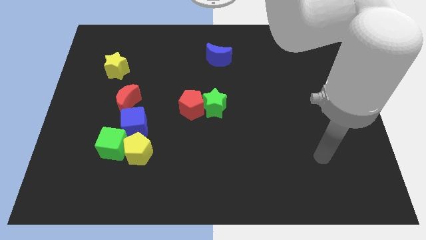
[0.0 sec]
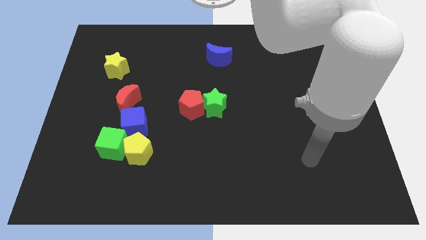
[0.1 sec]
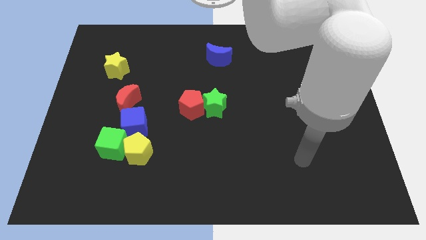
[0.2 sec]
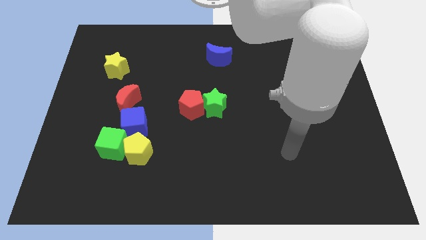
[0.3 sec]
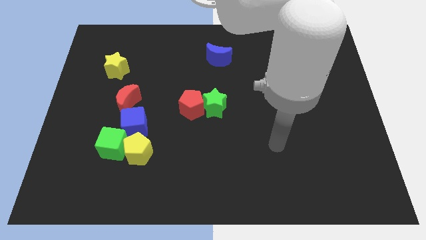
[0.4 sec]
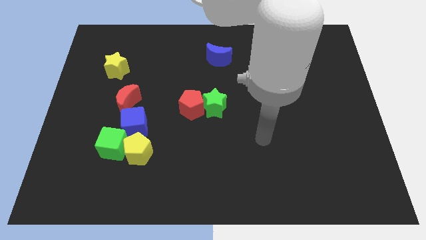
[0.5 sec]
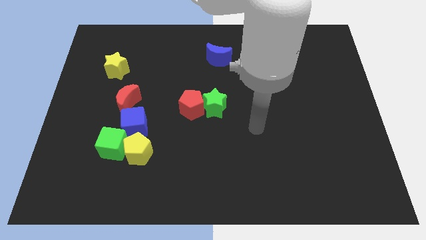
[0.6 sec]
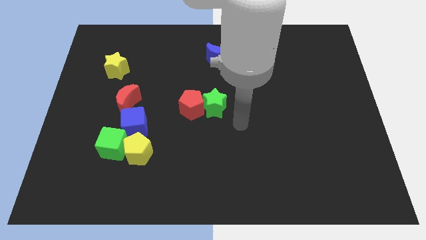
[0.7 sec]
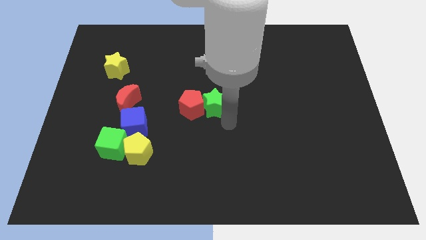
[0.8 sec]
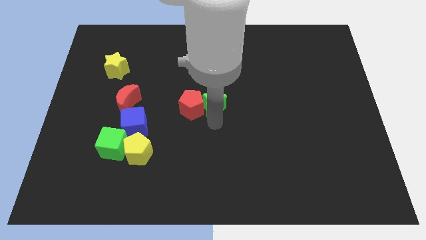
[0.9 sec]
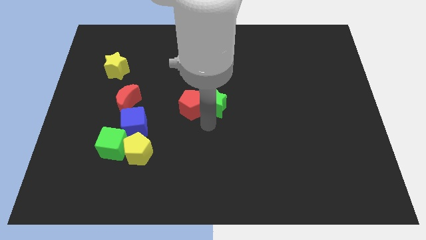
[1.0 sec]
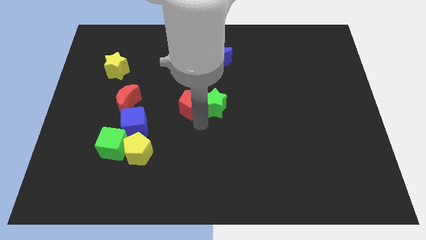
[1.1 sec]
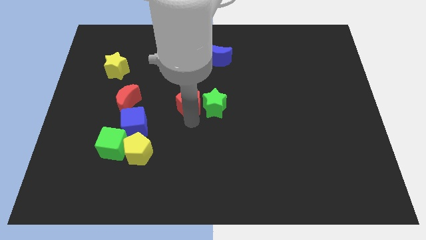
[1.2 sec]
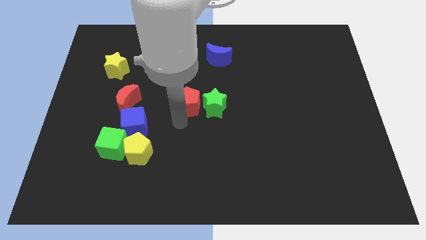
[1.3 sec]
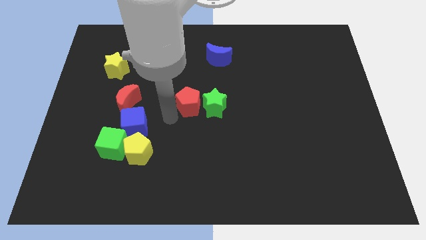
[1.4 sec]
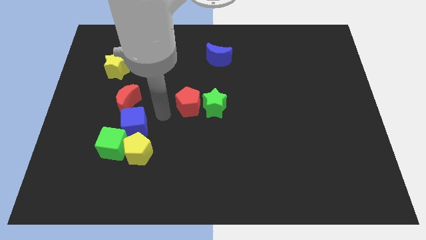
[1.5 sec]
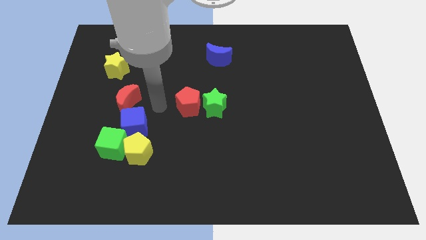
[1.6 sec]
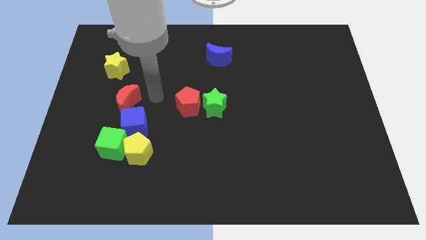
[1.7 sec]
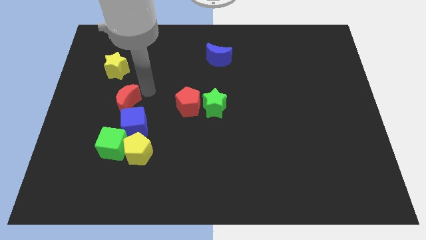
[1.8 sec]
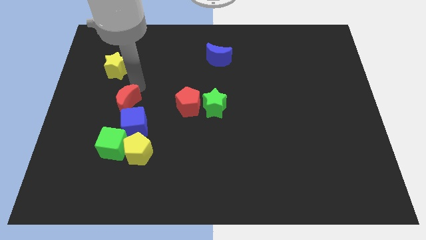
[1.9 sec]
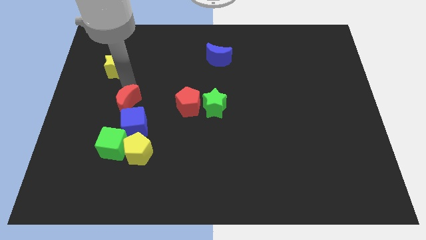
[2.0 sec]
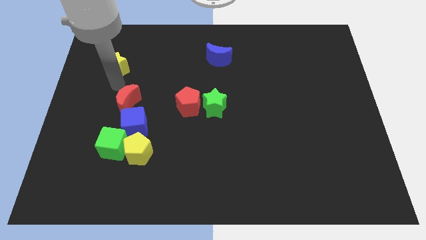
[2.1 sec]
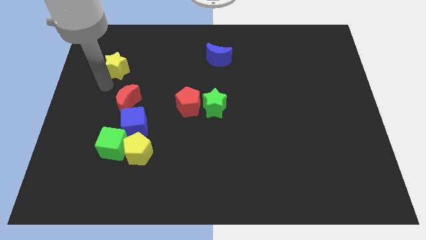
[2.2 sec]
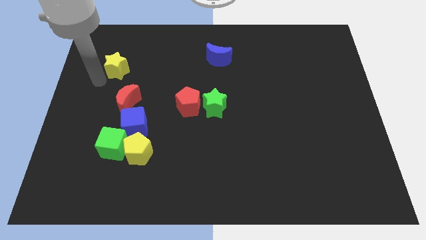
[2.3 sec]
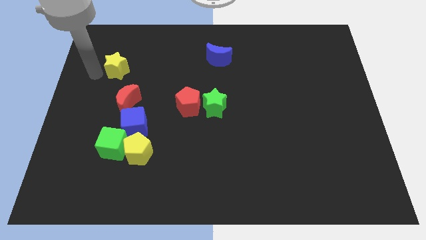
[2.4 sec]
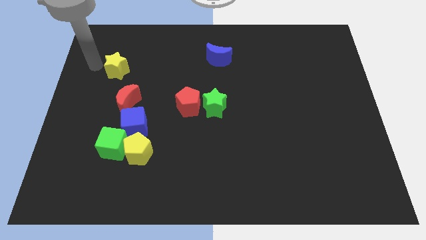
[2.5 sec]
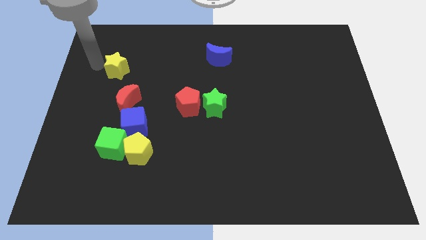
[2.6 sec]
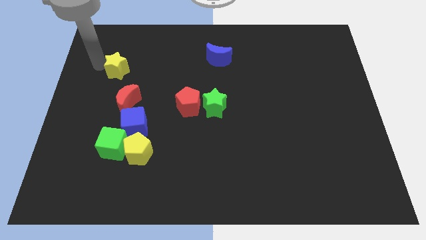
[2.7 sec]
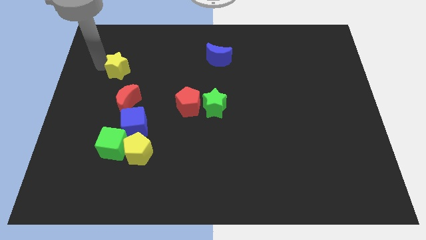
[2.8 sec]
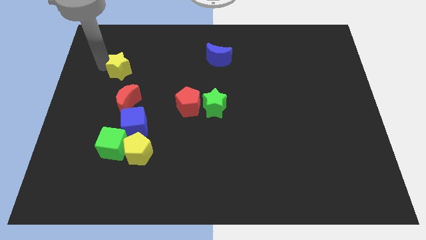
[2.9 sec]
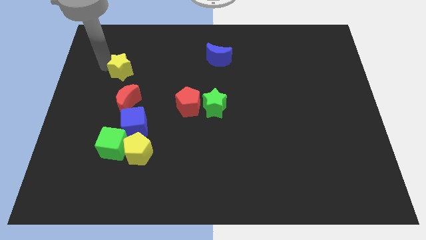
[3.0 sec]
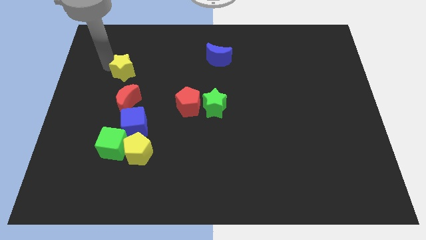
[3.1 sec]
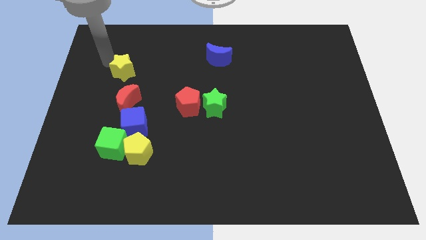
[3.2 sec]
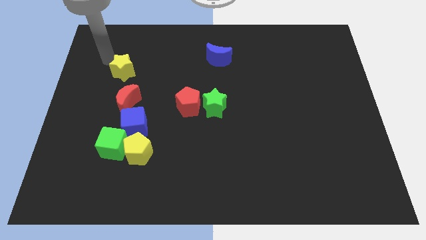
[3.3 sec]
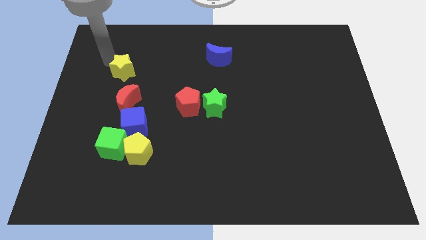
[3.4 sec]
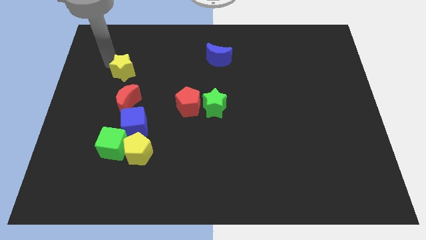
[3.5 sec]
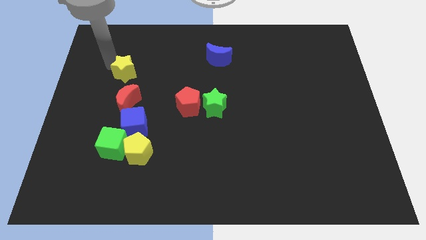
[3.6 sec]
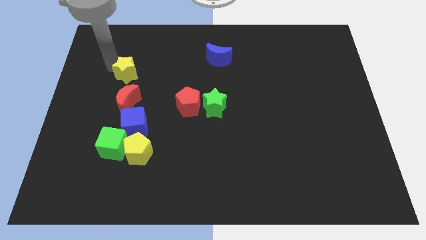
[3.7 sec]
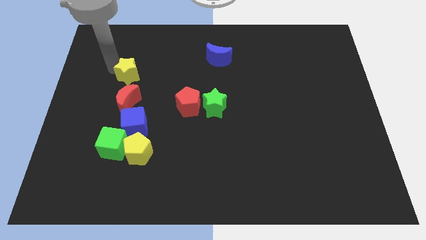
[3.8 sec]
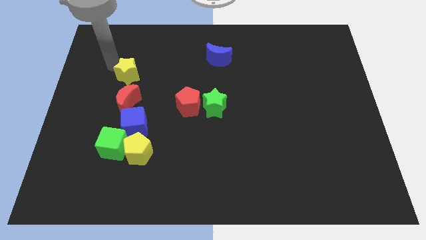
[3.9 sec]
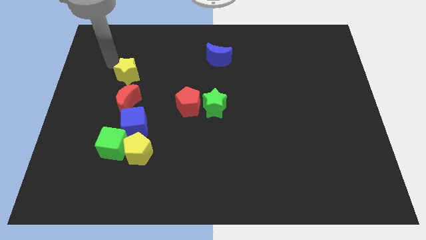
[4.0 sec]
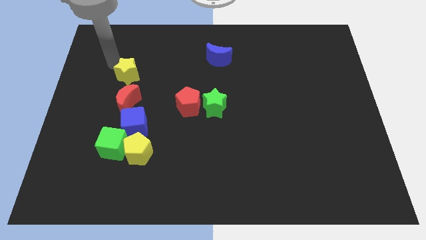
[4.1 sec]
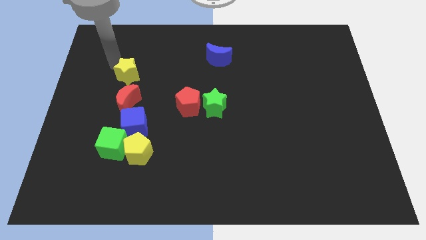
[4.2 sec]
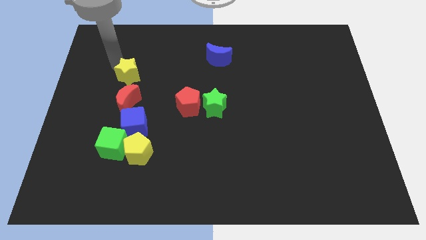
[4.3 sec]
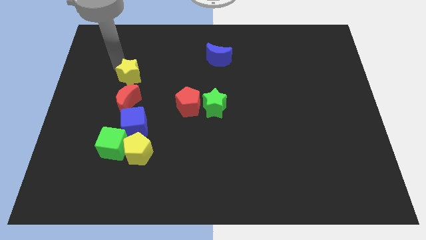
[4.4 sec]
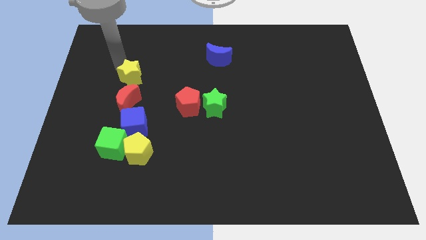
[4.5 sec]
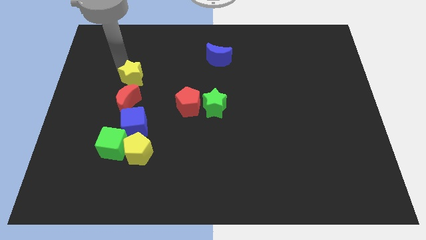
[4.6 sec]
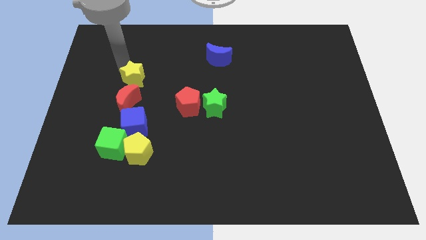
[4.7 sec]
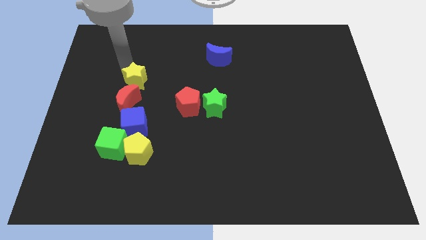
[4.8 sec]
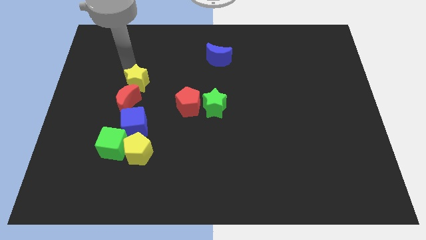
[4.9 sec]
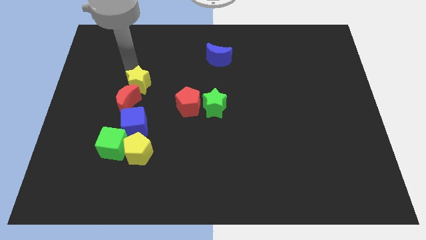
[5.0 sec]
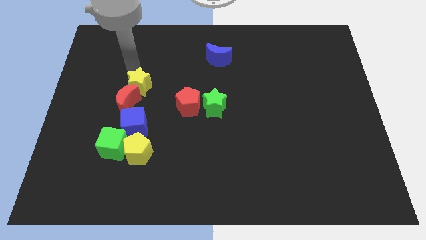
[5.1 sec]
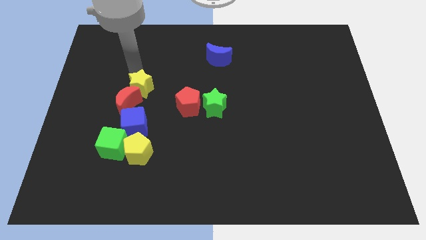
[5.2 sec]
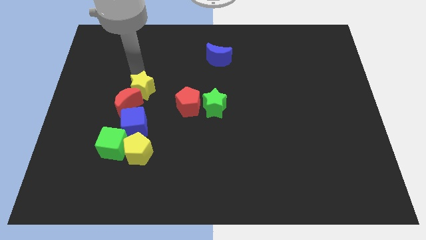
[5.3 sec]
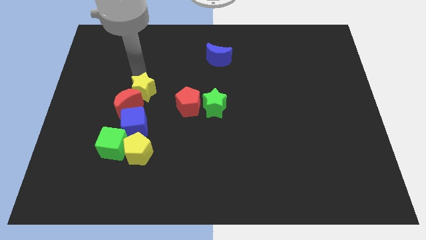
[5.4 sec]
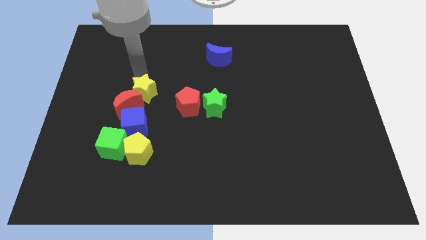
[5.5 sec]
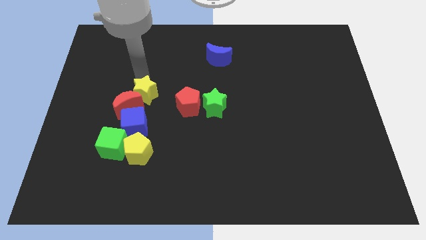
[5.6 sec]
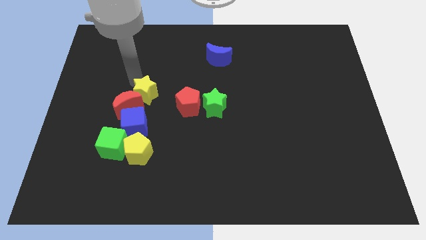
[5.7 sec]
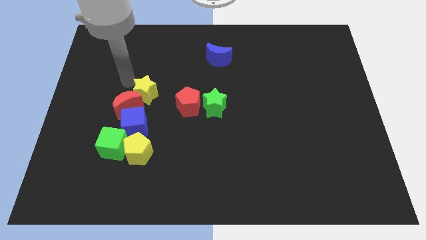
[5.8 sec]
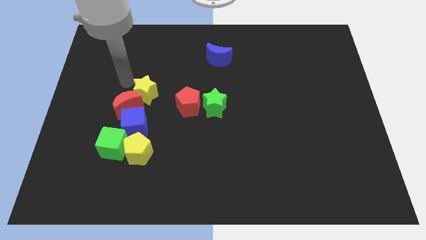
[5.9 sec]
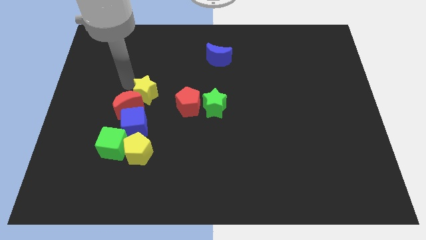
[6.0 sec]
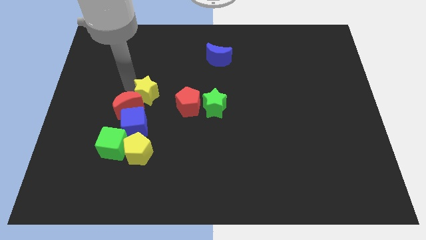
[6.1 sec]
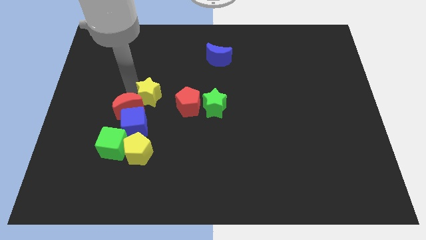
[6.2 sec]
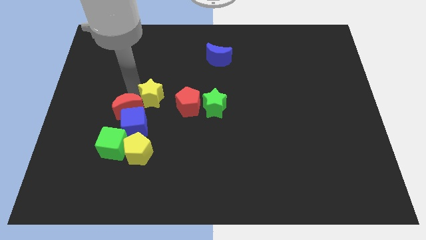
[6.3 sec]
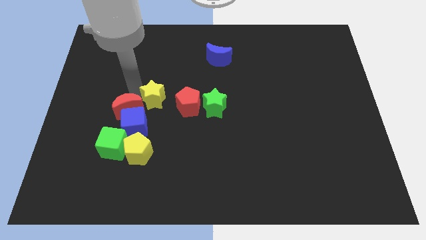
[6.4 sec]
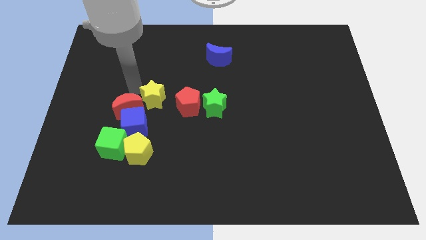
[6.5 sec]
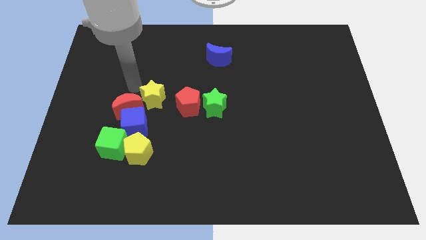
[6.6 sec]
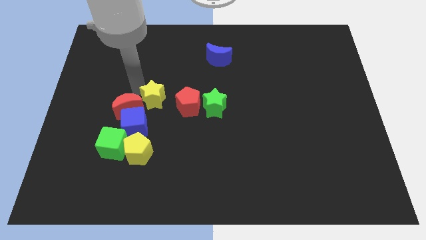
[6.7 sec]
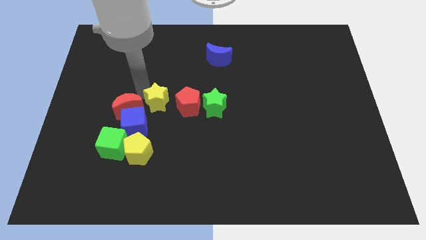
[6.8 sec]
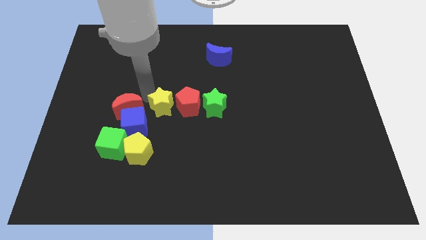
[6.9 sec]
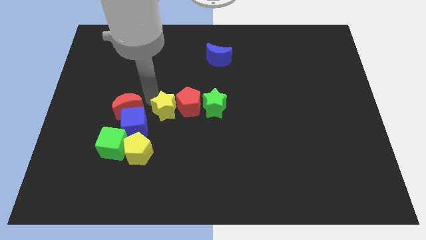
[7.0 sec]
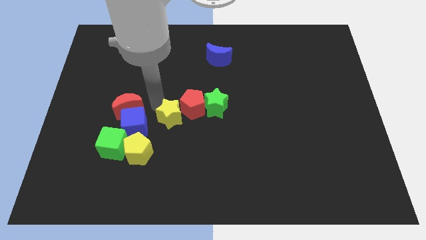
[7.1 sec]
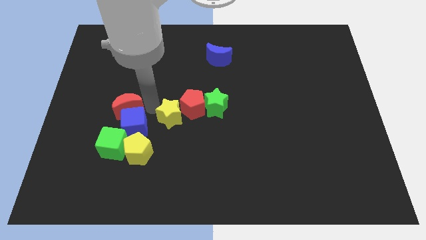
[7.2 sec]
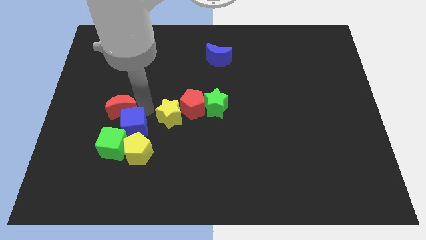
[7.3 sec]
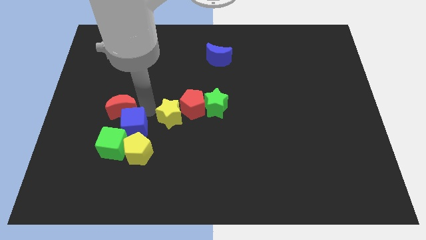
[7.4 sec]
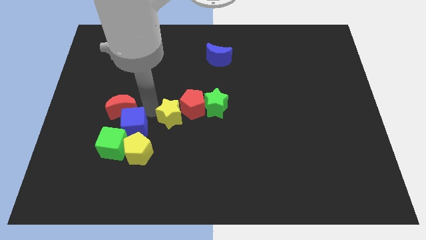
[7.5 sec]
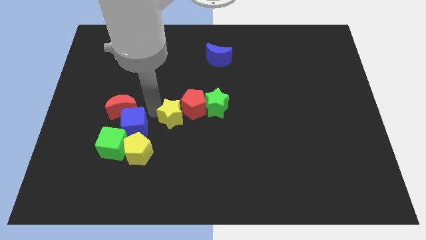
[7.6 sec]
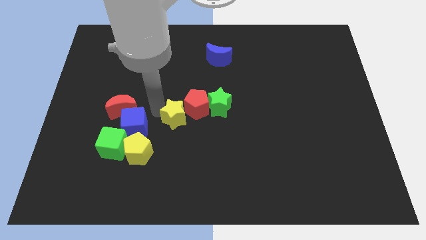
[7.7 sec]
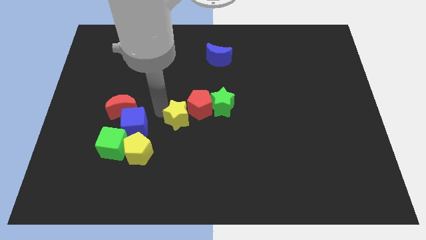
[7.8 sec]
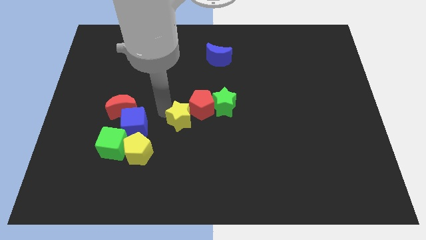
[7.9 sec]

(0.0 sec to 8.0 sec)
push the yellow star diagonally down and to the left of the green star
